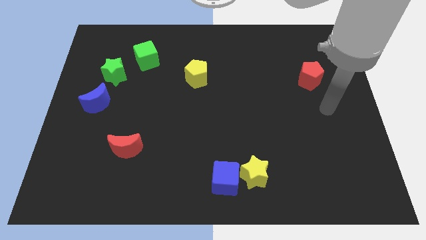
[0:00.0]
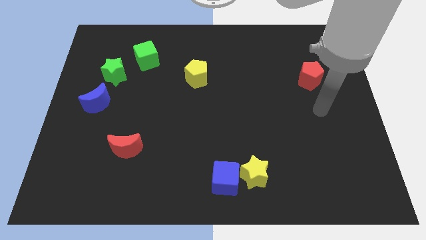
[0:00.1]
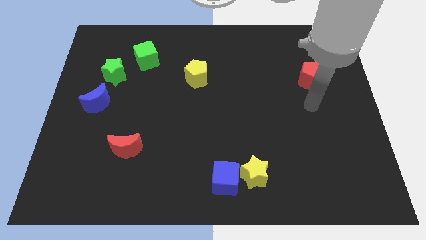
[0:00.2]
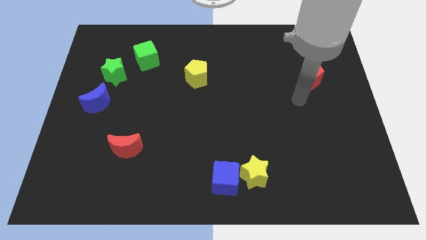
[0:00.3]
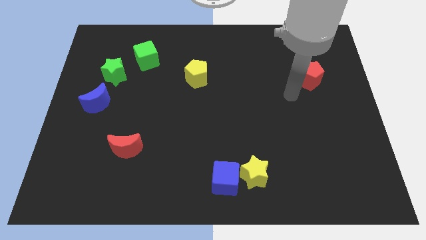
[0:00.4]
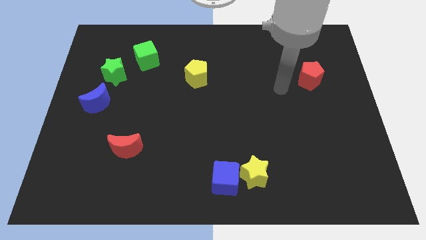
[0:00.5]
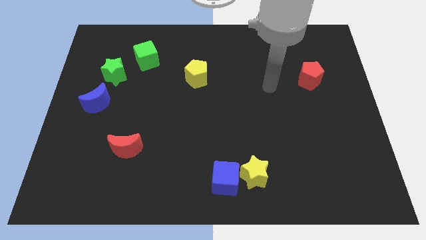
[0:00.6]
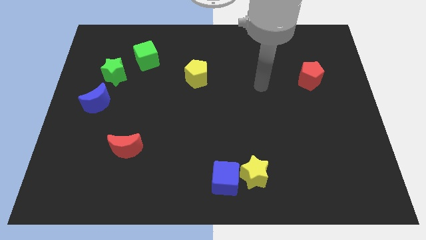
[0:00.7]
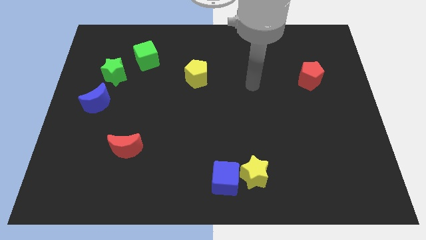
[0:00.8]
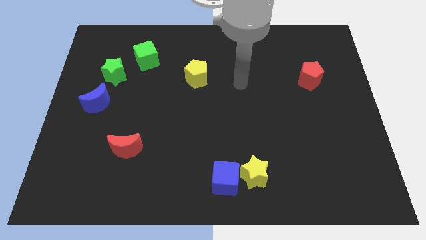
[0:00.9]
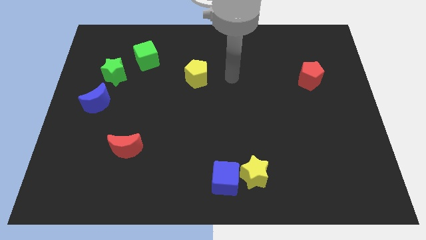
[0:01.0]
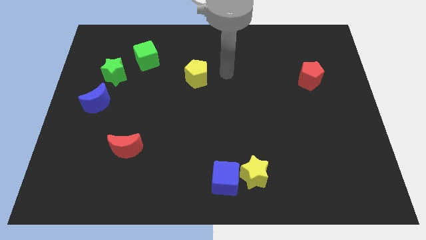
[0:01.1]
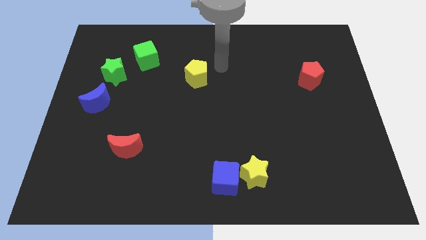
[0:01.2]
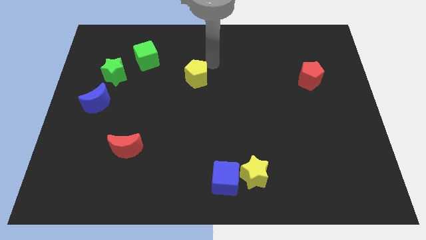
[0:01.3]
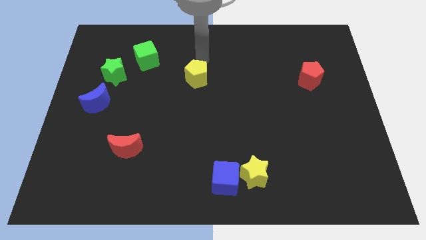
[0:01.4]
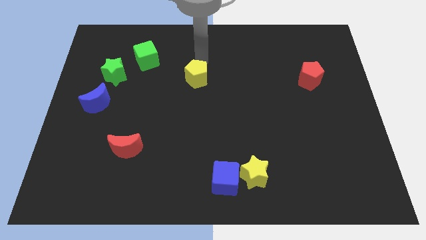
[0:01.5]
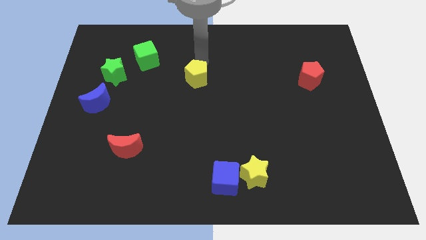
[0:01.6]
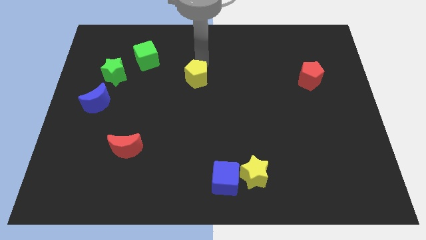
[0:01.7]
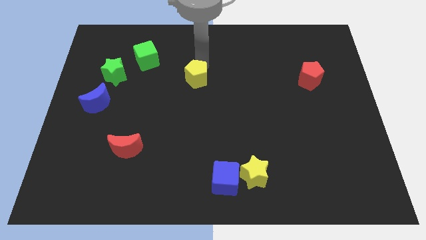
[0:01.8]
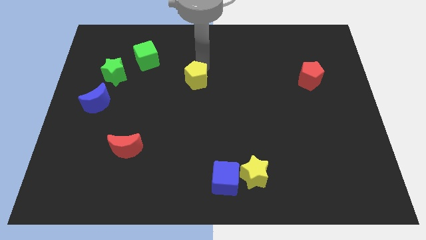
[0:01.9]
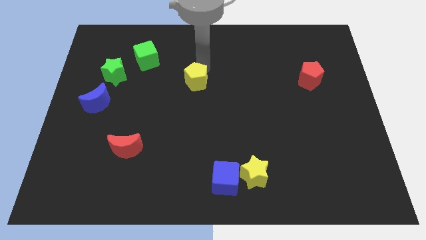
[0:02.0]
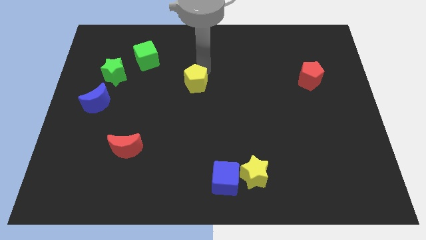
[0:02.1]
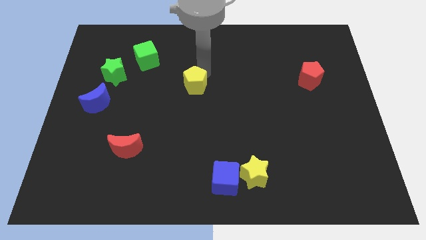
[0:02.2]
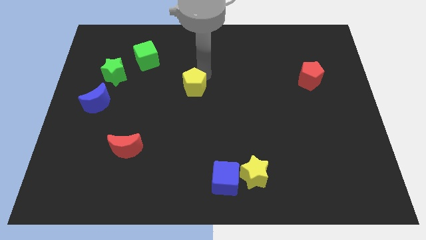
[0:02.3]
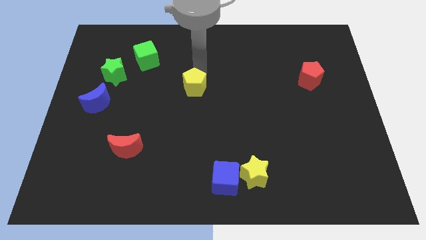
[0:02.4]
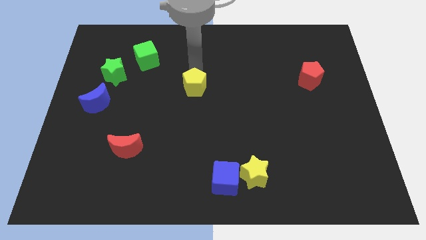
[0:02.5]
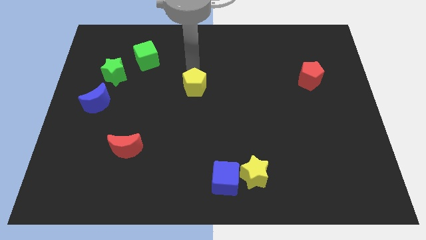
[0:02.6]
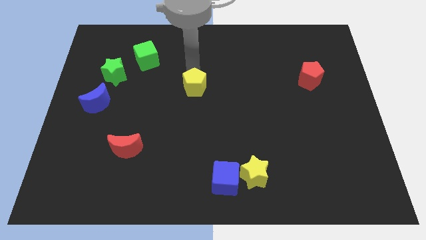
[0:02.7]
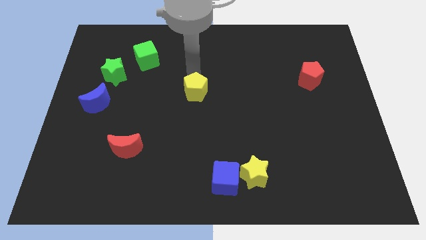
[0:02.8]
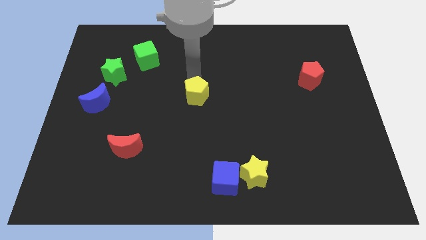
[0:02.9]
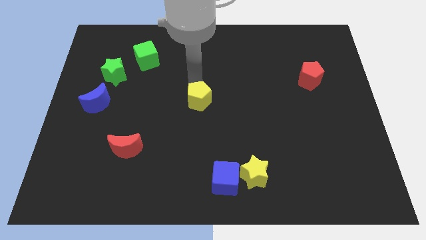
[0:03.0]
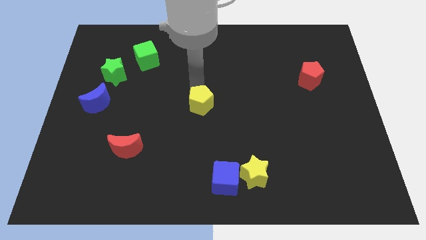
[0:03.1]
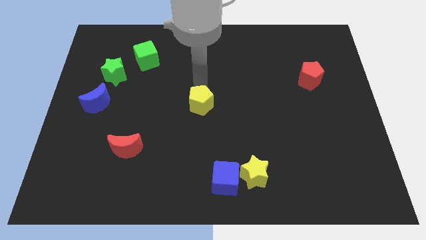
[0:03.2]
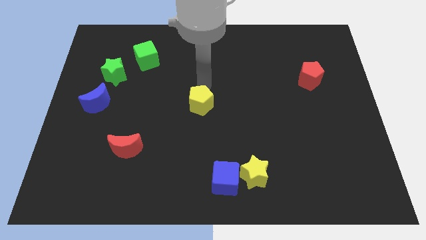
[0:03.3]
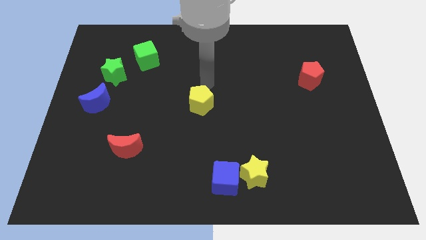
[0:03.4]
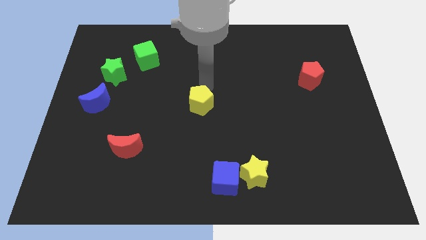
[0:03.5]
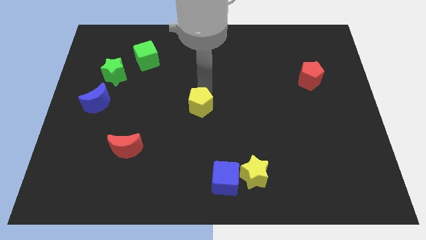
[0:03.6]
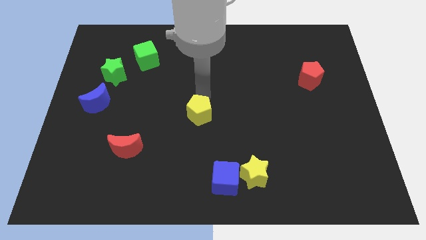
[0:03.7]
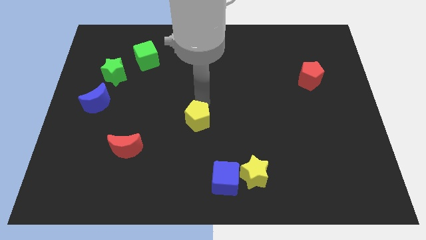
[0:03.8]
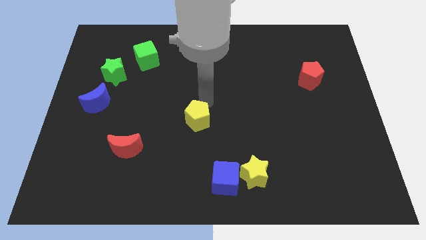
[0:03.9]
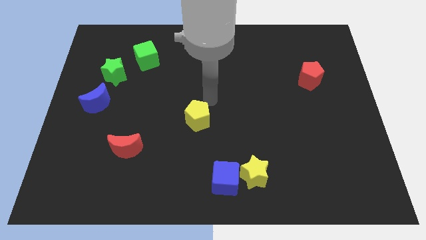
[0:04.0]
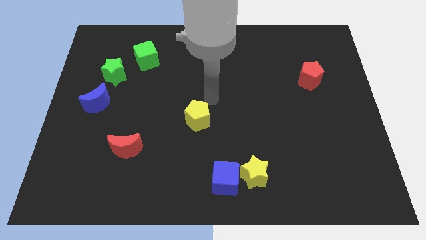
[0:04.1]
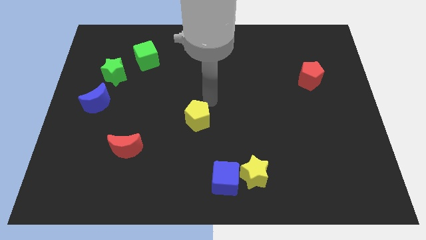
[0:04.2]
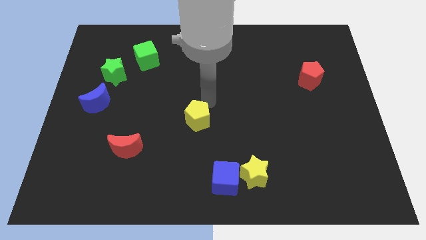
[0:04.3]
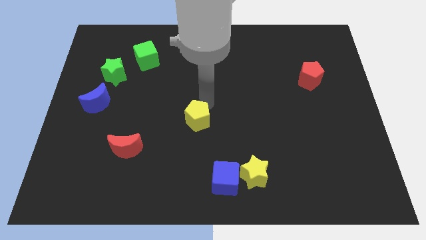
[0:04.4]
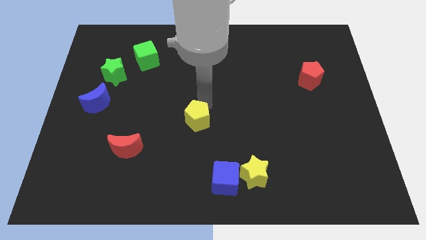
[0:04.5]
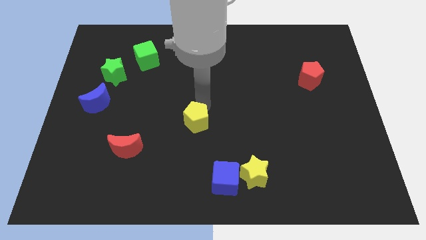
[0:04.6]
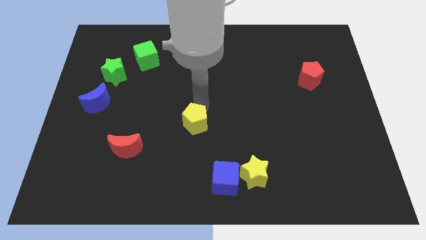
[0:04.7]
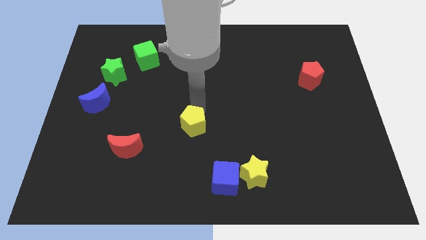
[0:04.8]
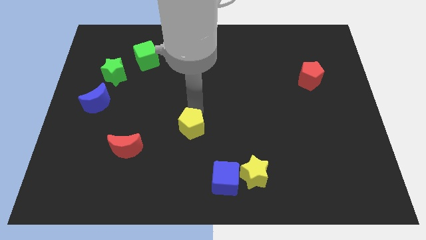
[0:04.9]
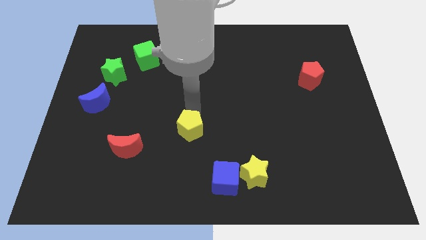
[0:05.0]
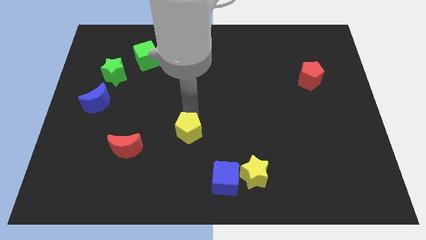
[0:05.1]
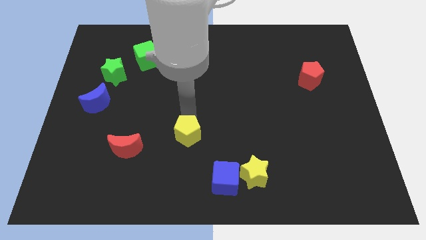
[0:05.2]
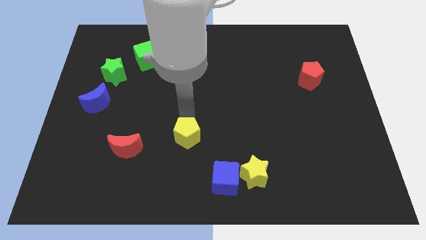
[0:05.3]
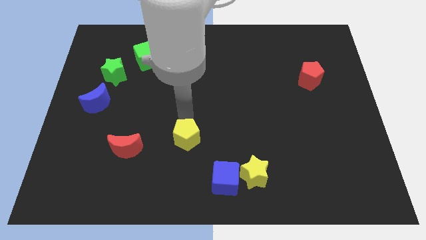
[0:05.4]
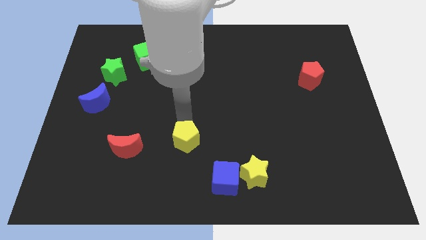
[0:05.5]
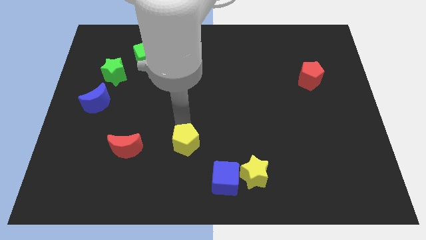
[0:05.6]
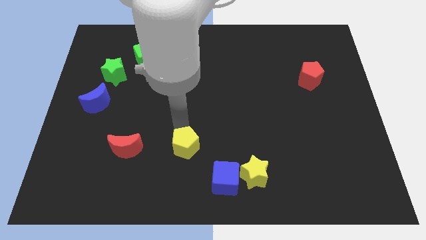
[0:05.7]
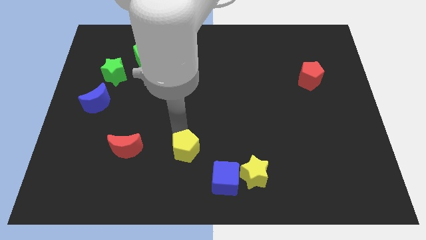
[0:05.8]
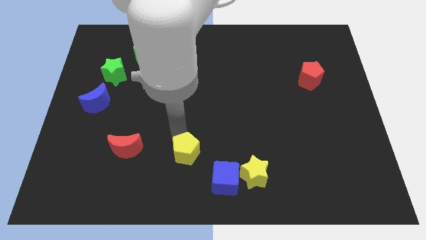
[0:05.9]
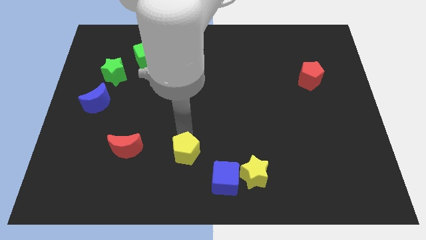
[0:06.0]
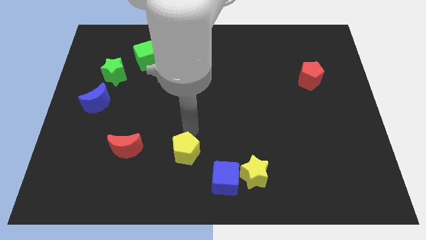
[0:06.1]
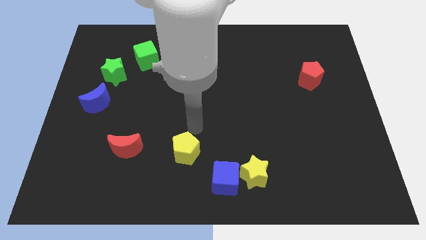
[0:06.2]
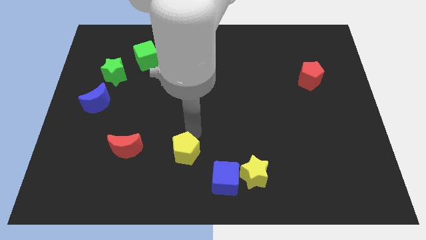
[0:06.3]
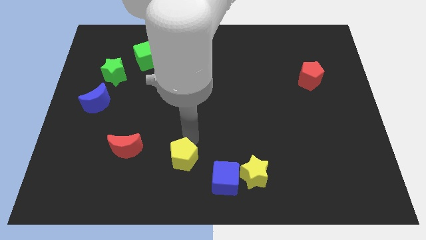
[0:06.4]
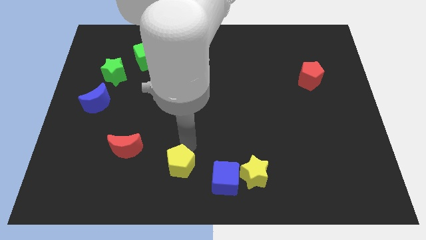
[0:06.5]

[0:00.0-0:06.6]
put the yellow pentagon just left of the blue cube
